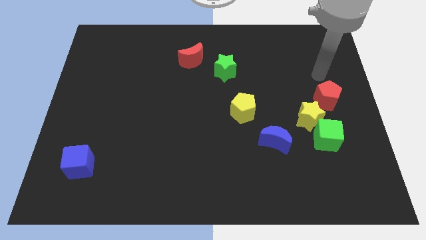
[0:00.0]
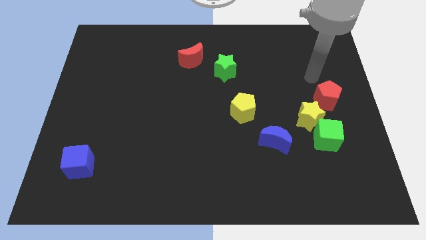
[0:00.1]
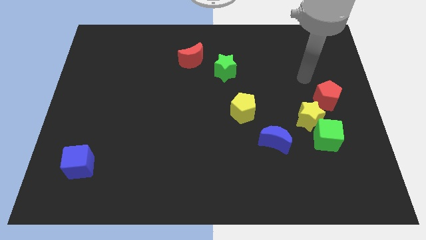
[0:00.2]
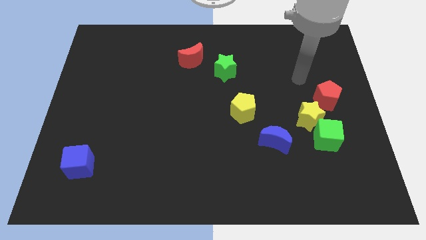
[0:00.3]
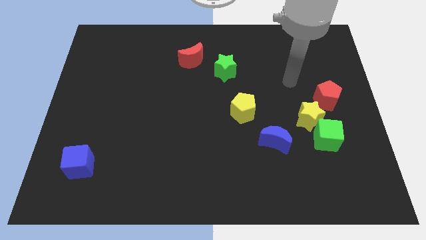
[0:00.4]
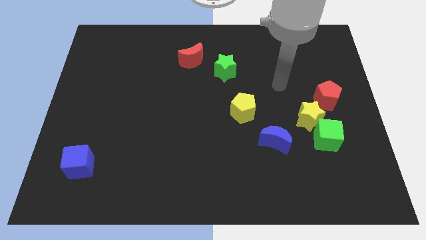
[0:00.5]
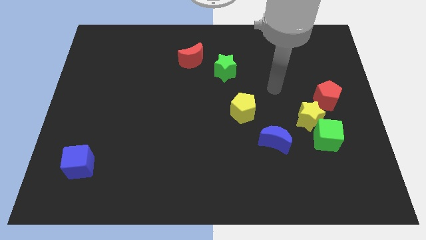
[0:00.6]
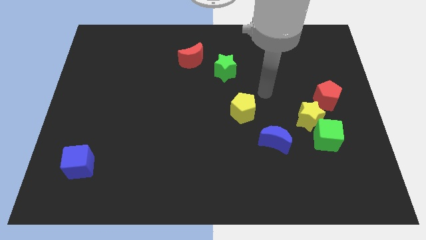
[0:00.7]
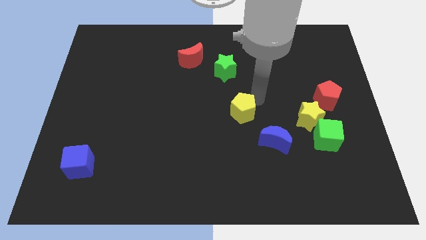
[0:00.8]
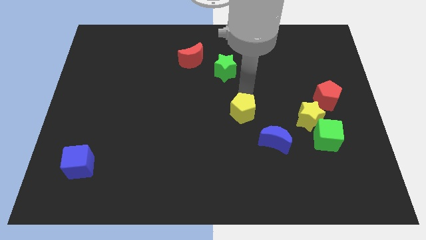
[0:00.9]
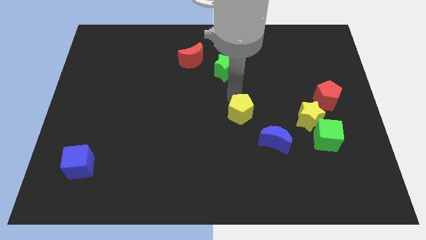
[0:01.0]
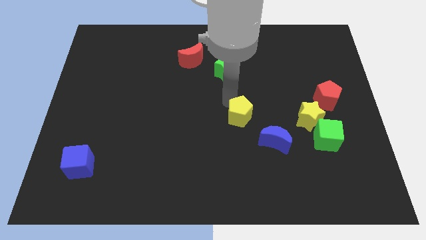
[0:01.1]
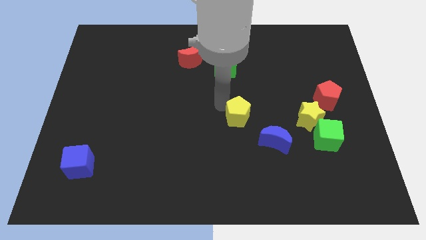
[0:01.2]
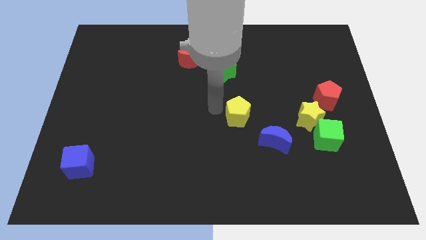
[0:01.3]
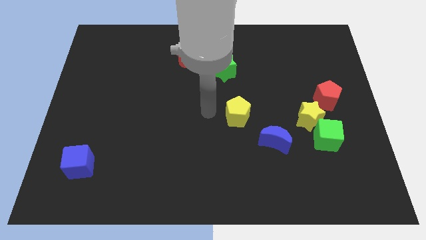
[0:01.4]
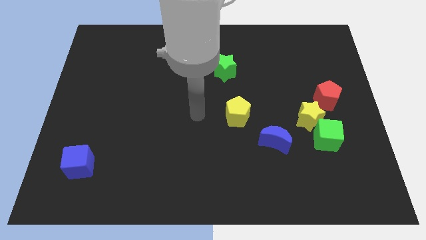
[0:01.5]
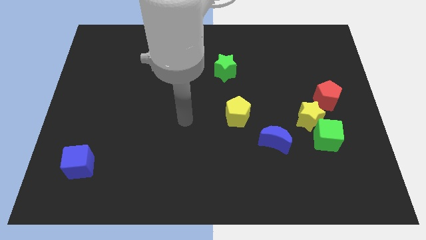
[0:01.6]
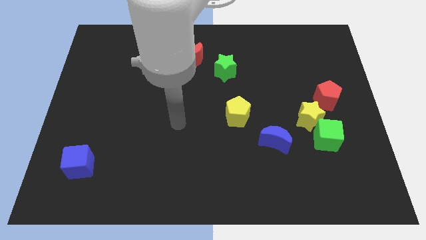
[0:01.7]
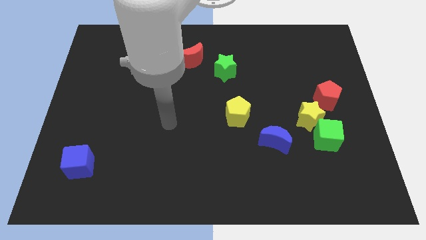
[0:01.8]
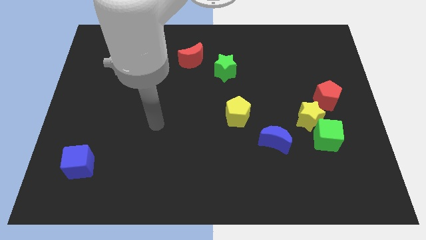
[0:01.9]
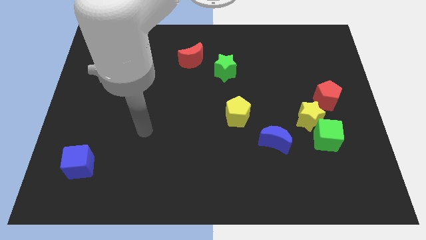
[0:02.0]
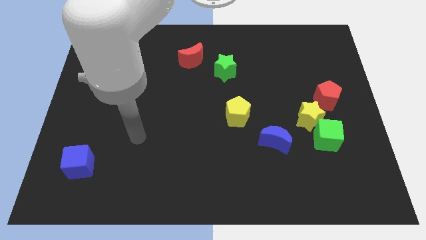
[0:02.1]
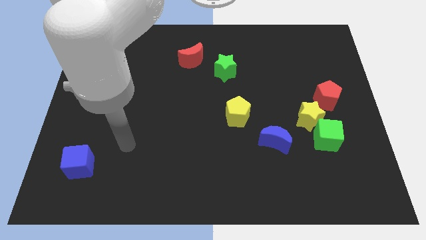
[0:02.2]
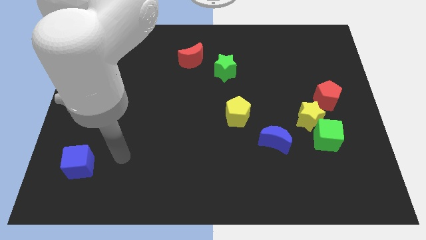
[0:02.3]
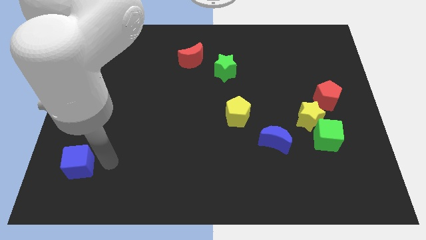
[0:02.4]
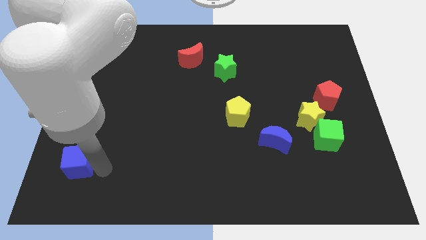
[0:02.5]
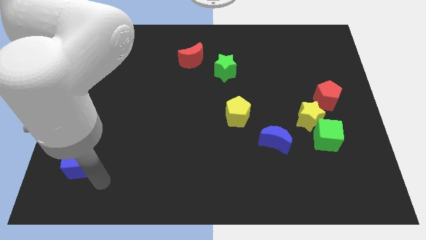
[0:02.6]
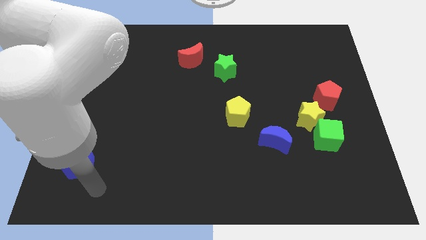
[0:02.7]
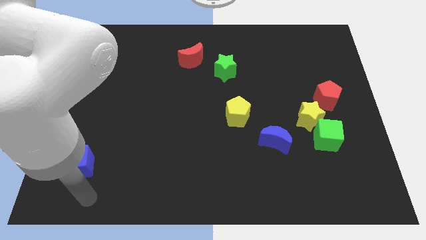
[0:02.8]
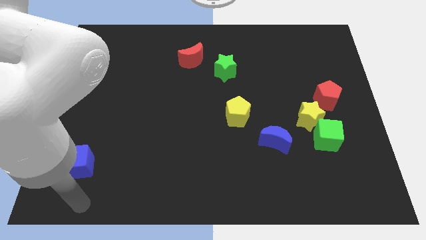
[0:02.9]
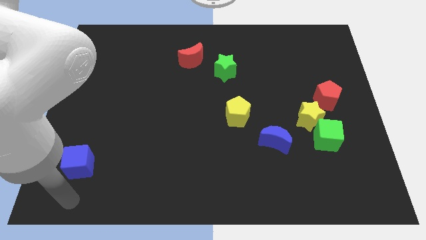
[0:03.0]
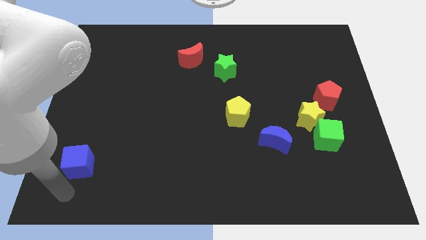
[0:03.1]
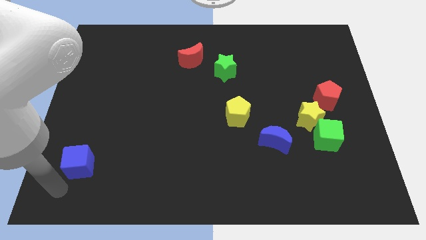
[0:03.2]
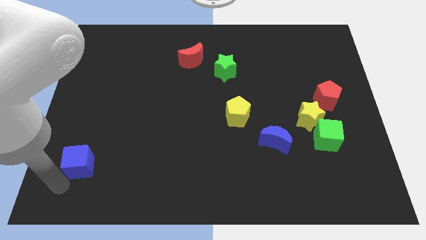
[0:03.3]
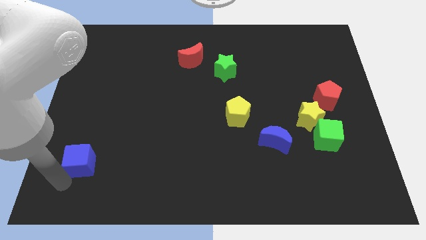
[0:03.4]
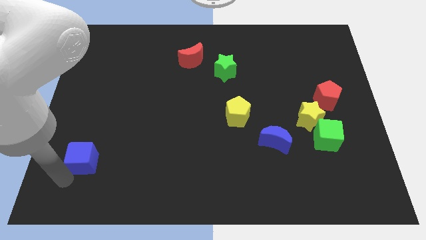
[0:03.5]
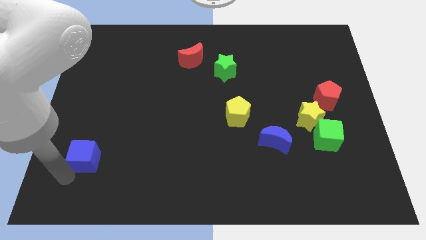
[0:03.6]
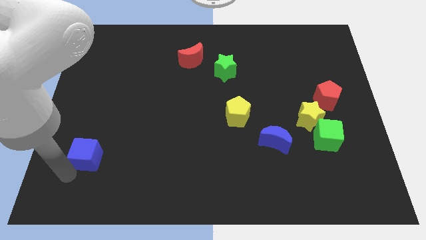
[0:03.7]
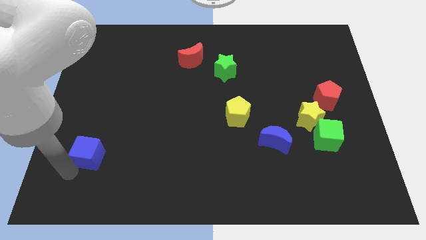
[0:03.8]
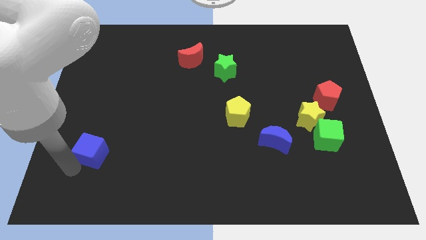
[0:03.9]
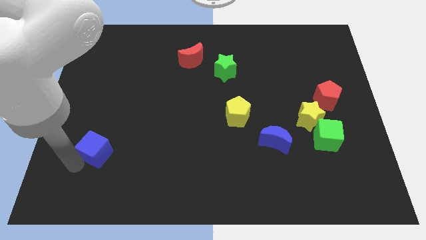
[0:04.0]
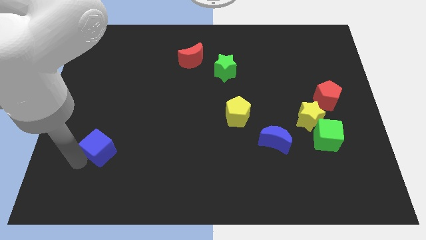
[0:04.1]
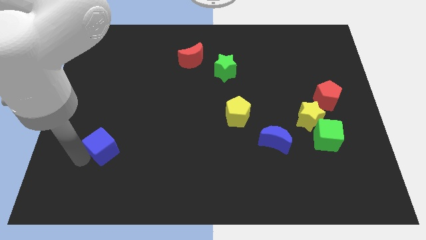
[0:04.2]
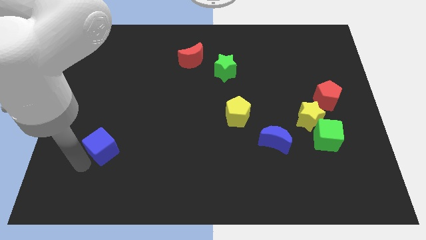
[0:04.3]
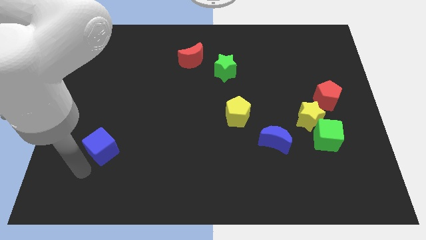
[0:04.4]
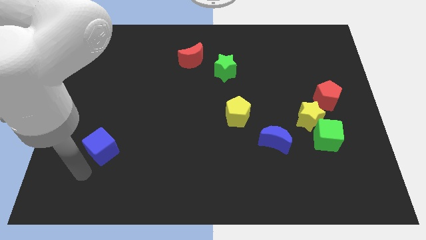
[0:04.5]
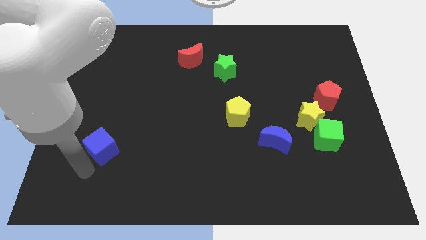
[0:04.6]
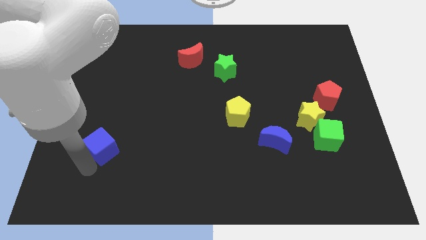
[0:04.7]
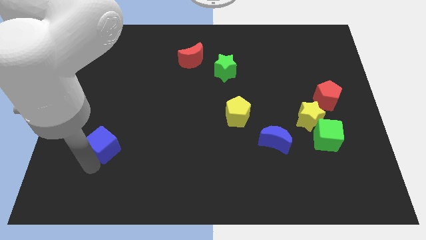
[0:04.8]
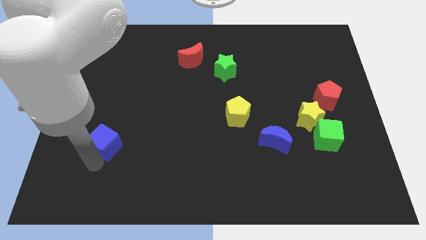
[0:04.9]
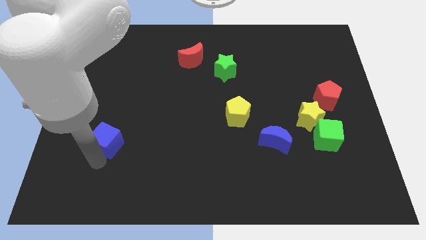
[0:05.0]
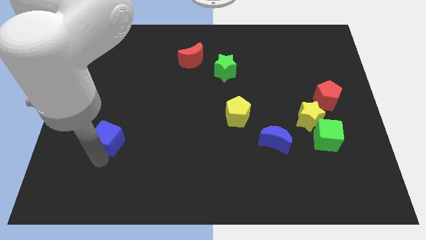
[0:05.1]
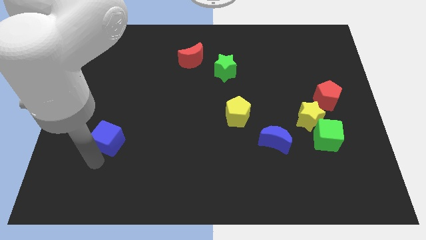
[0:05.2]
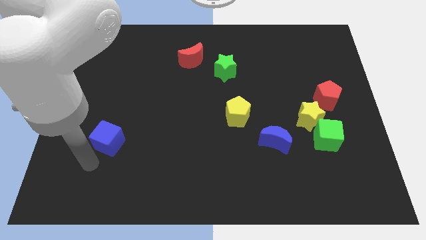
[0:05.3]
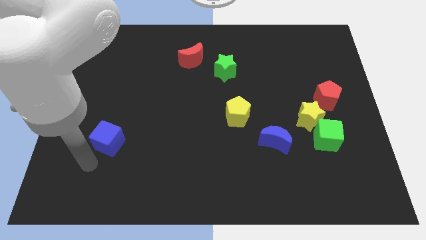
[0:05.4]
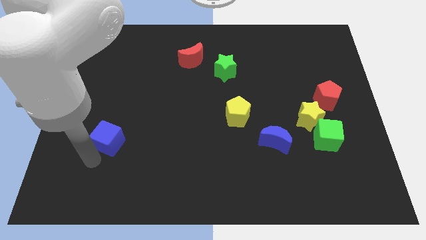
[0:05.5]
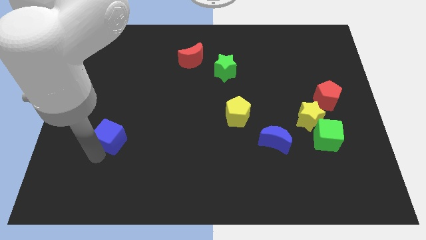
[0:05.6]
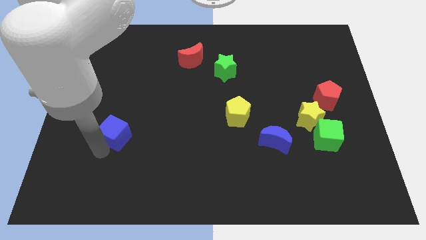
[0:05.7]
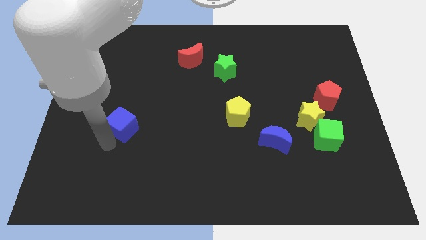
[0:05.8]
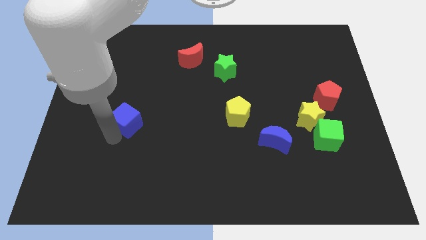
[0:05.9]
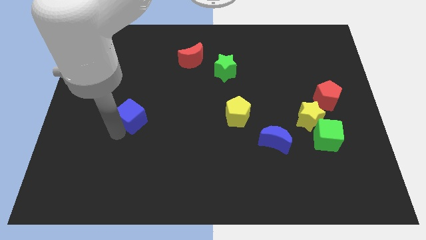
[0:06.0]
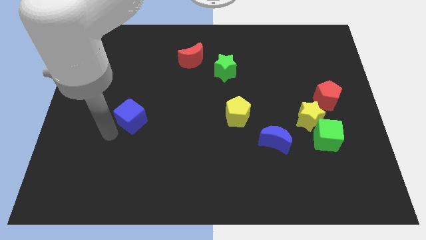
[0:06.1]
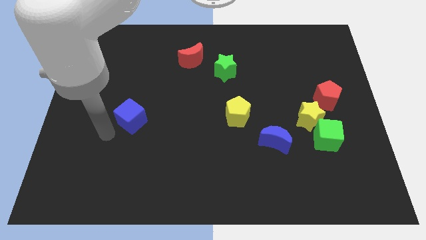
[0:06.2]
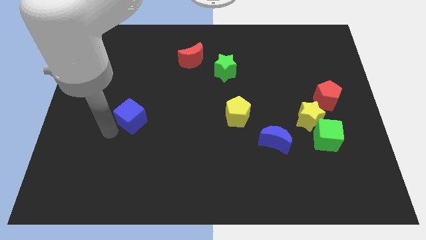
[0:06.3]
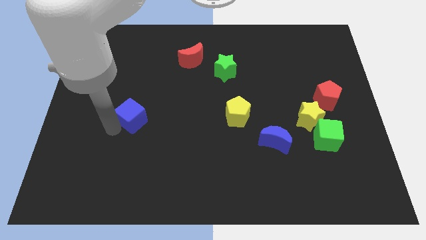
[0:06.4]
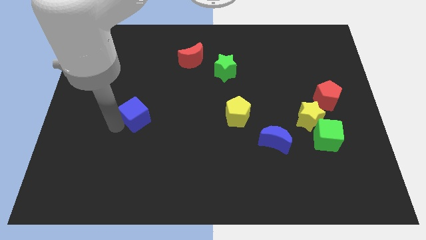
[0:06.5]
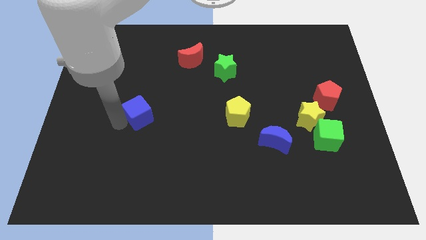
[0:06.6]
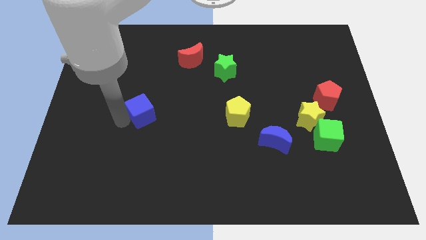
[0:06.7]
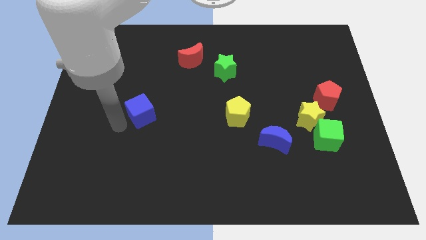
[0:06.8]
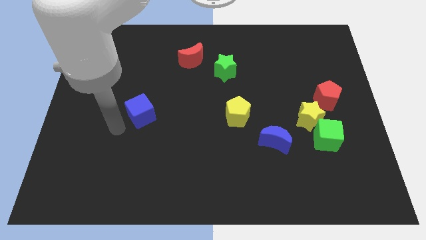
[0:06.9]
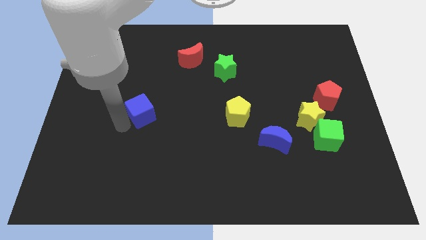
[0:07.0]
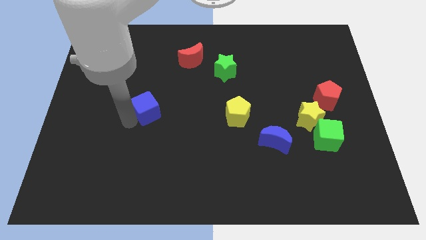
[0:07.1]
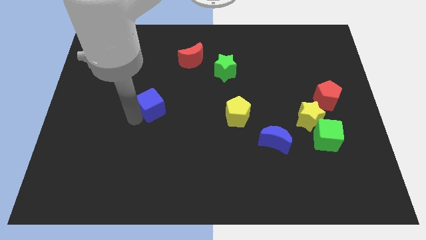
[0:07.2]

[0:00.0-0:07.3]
push the blue cube upwards and right diagonally

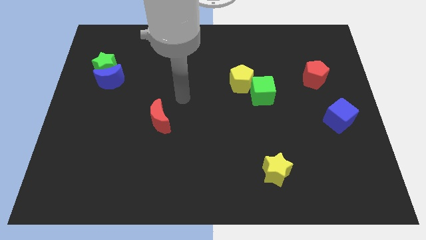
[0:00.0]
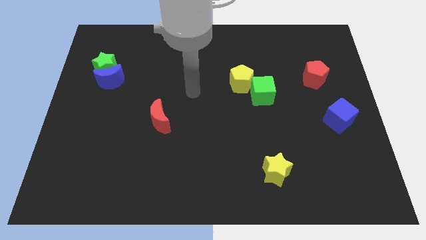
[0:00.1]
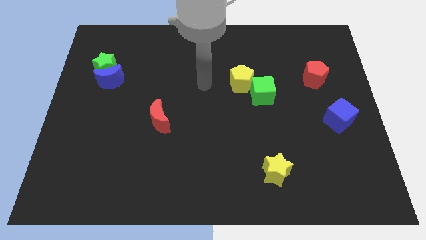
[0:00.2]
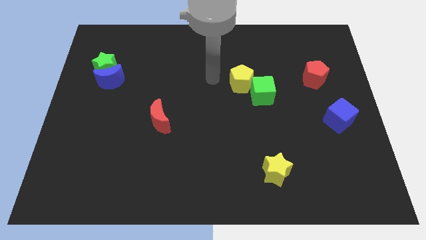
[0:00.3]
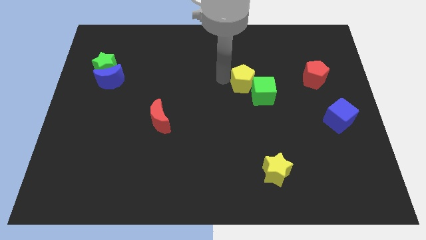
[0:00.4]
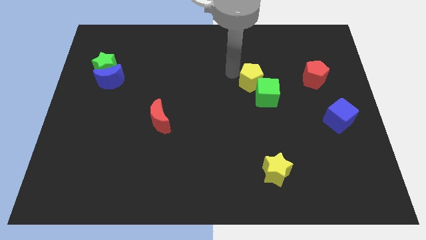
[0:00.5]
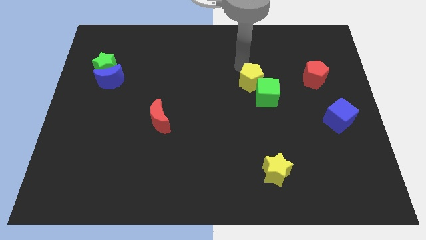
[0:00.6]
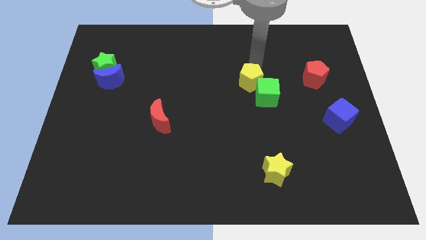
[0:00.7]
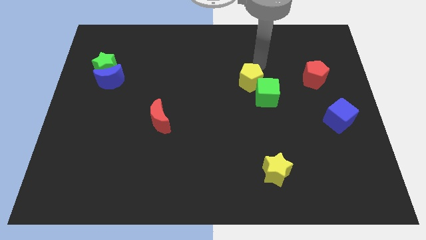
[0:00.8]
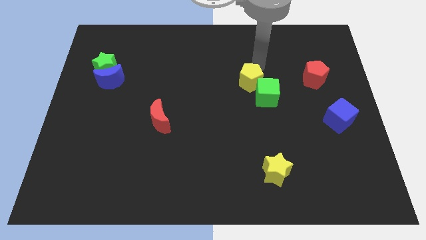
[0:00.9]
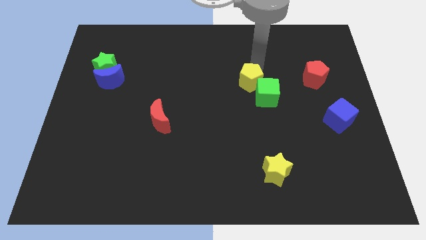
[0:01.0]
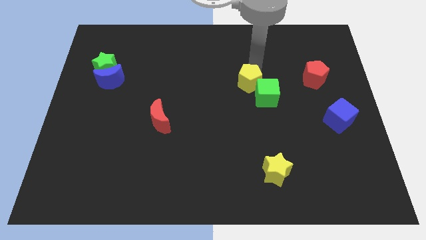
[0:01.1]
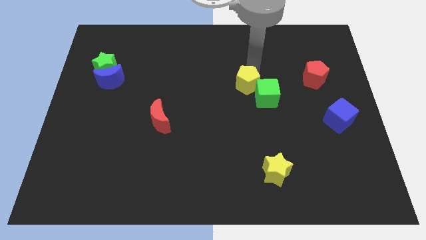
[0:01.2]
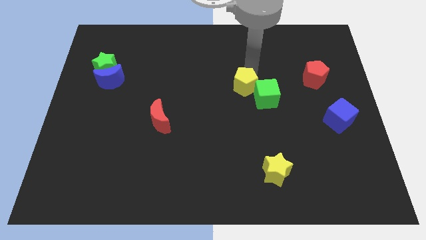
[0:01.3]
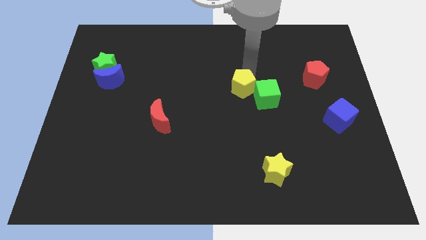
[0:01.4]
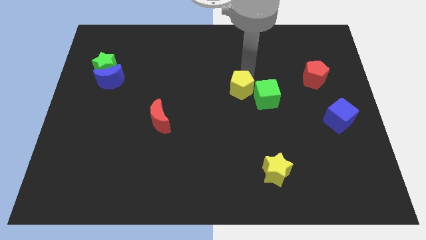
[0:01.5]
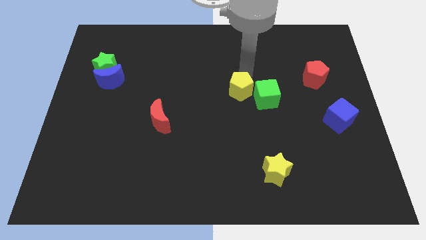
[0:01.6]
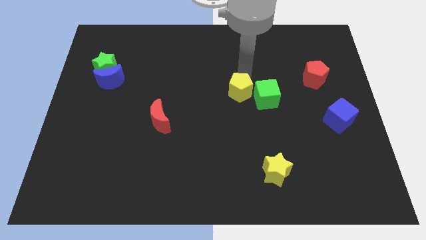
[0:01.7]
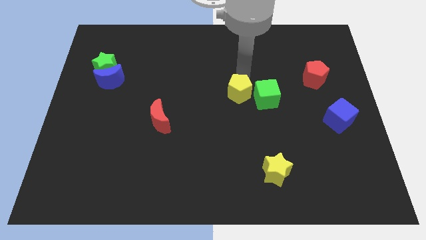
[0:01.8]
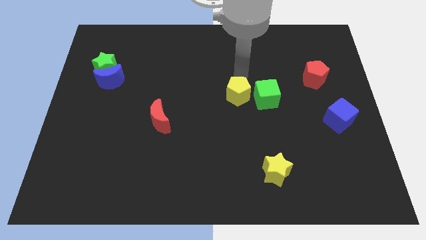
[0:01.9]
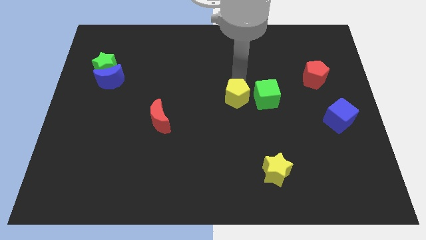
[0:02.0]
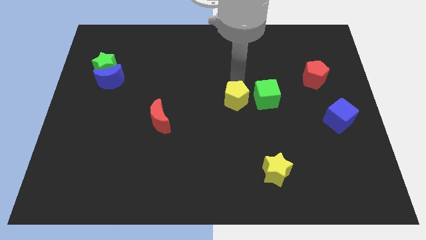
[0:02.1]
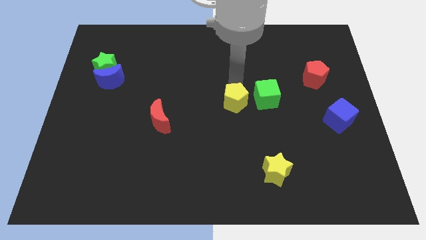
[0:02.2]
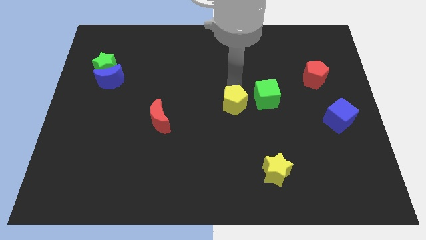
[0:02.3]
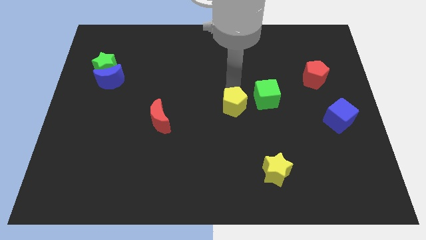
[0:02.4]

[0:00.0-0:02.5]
push the yellow pentagon a little down
